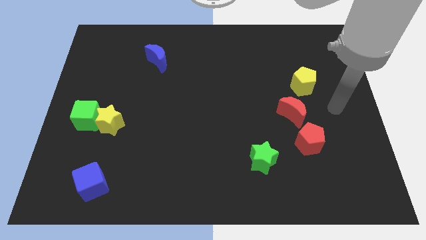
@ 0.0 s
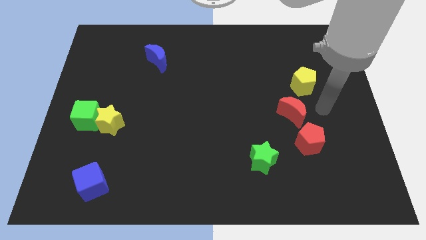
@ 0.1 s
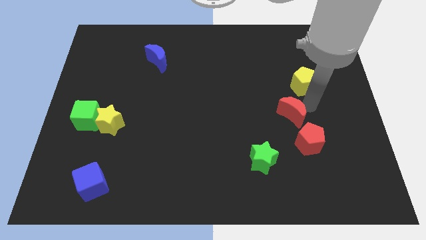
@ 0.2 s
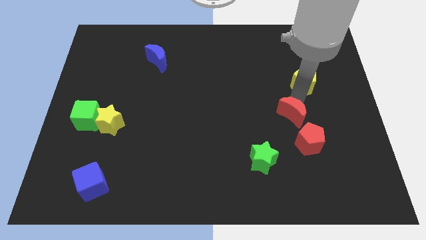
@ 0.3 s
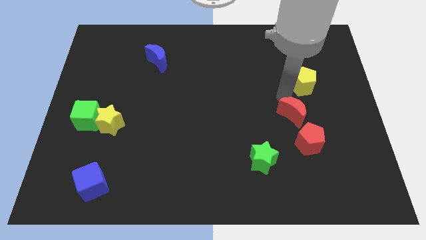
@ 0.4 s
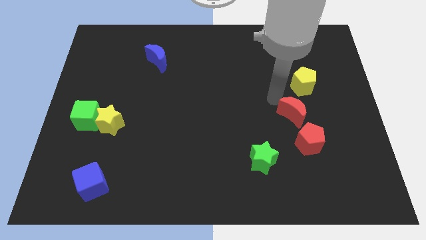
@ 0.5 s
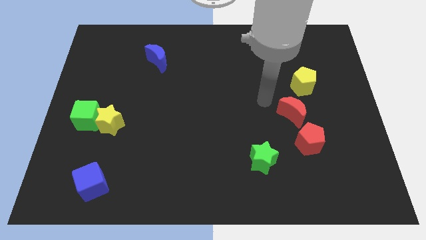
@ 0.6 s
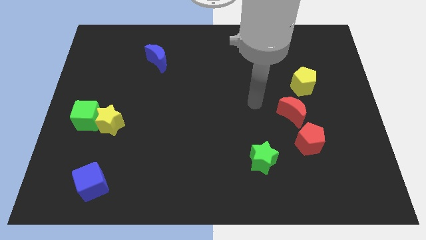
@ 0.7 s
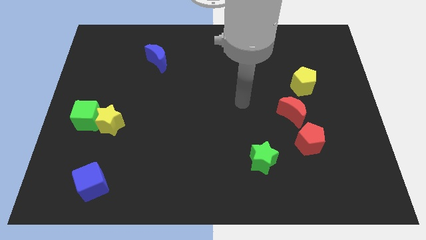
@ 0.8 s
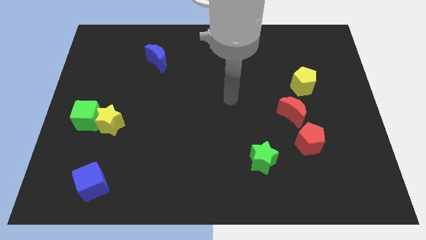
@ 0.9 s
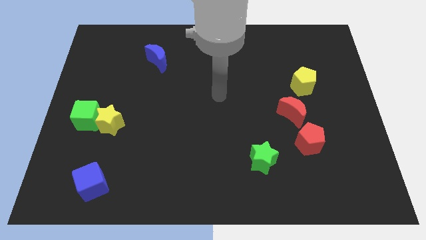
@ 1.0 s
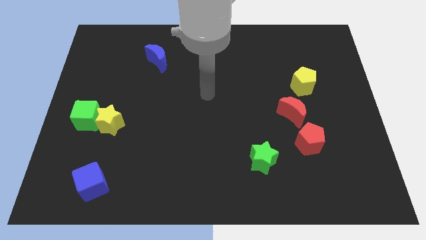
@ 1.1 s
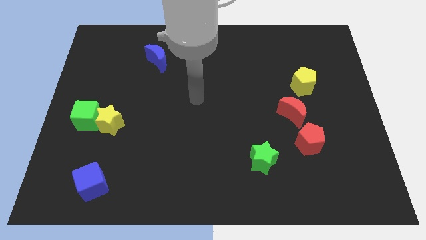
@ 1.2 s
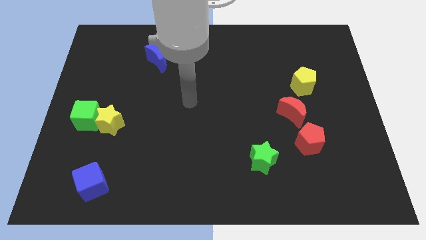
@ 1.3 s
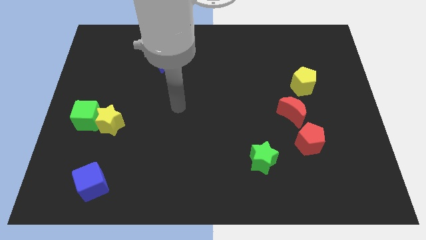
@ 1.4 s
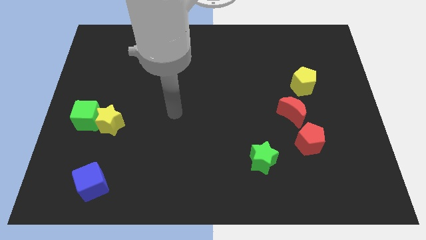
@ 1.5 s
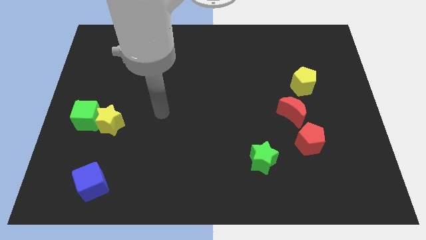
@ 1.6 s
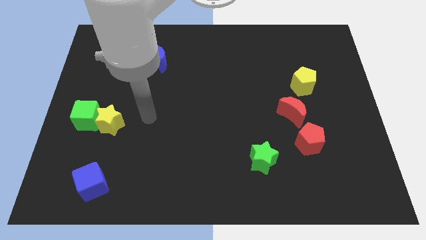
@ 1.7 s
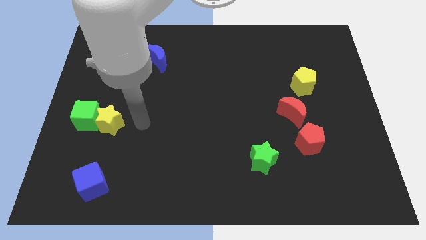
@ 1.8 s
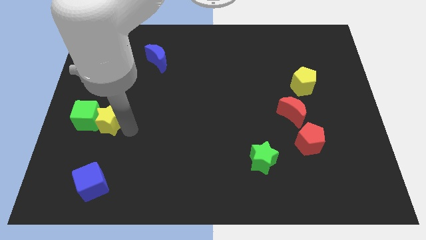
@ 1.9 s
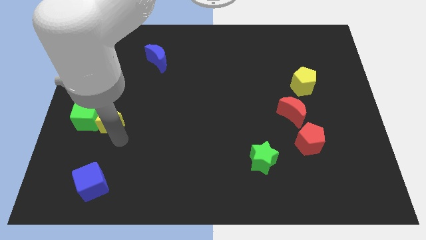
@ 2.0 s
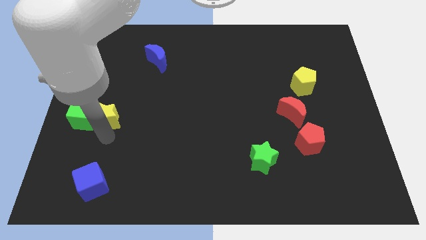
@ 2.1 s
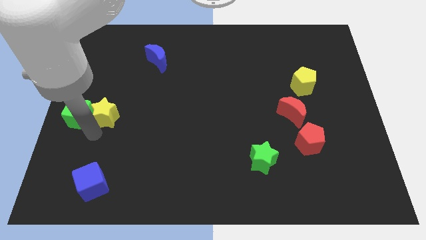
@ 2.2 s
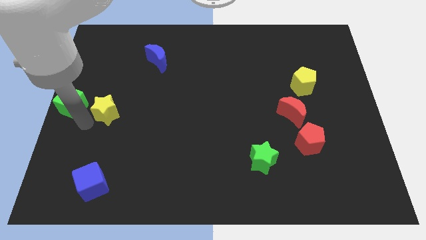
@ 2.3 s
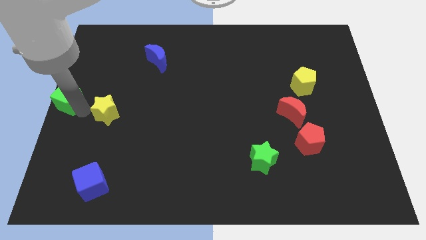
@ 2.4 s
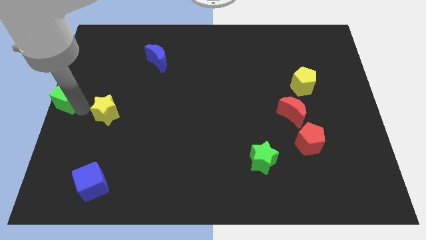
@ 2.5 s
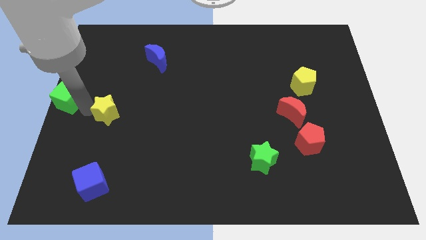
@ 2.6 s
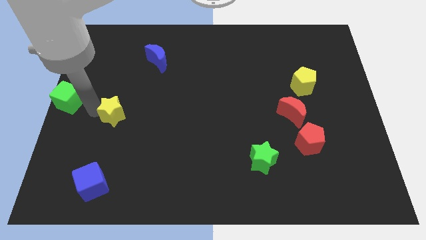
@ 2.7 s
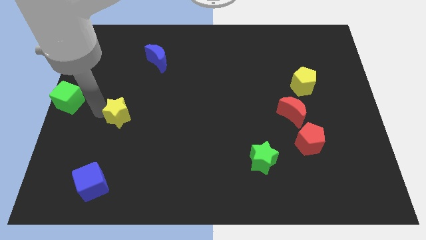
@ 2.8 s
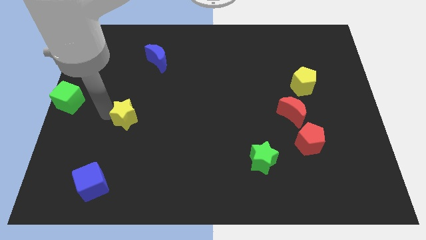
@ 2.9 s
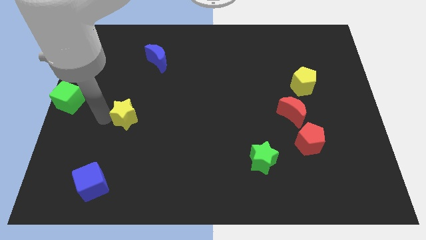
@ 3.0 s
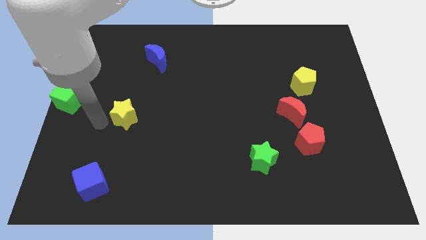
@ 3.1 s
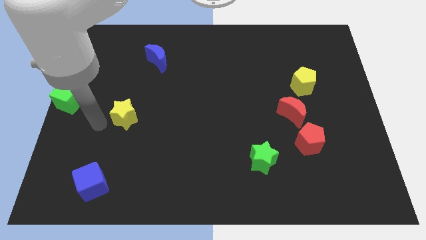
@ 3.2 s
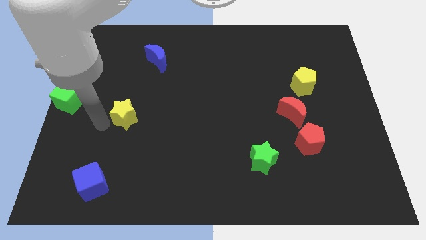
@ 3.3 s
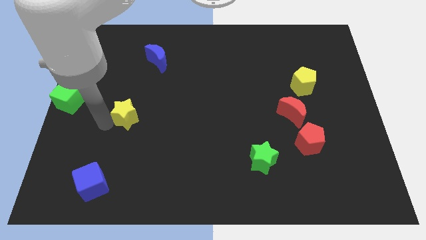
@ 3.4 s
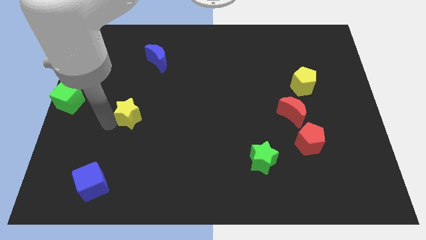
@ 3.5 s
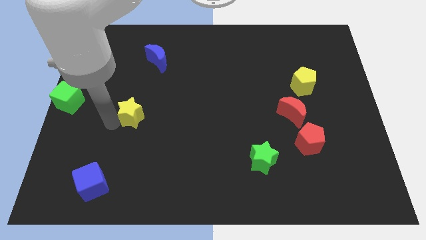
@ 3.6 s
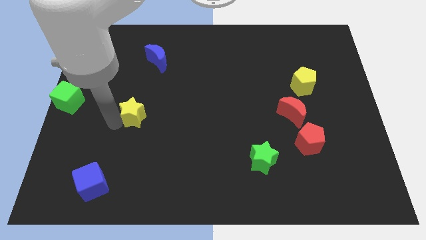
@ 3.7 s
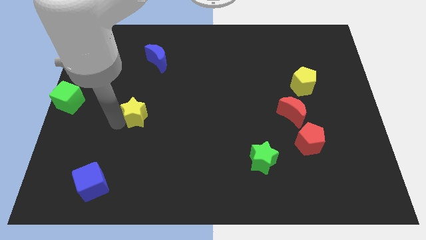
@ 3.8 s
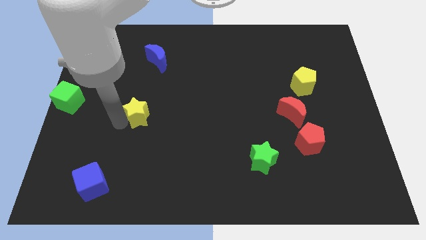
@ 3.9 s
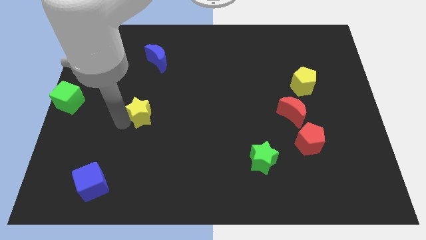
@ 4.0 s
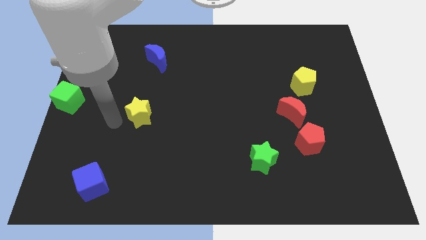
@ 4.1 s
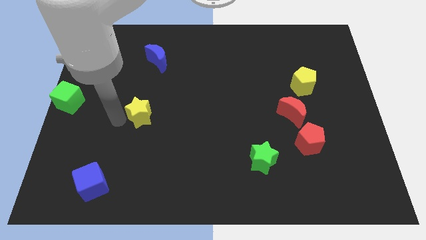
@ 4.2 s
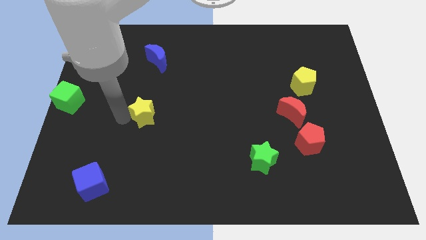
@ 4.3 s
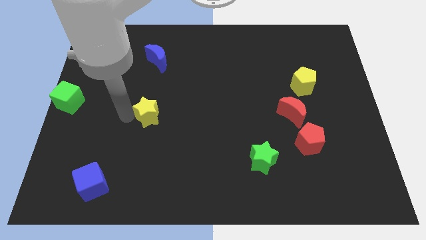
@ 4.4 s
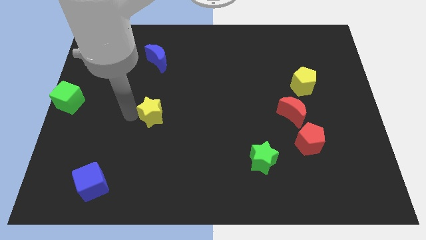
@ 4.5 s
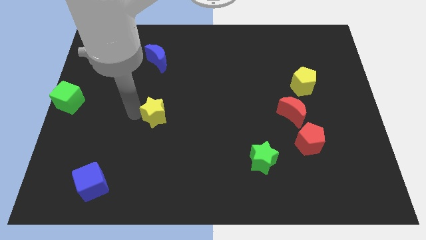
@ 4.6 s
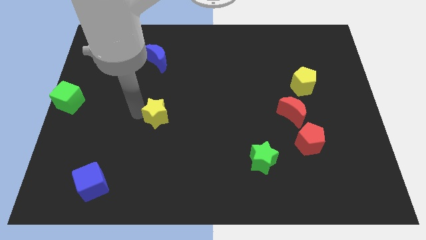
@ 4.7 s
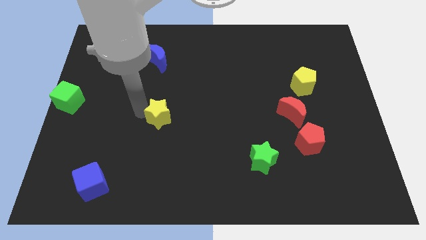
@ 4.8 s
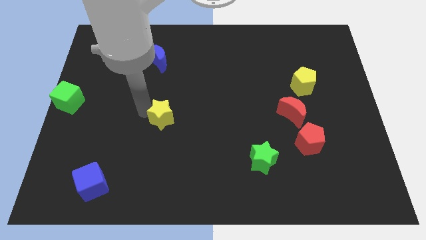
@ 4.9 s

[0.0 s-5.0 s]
move the yellow star to the center of the board

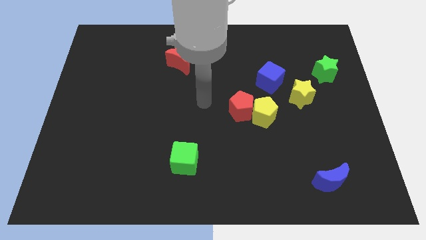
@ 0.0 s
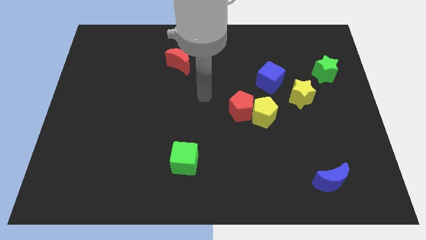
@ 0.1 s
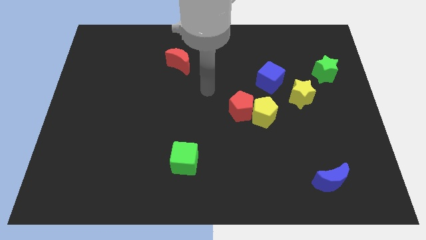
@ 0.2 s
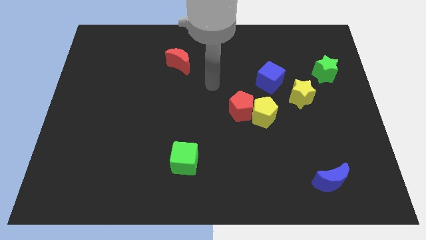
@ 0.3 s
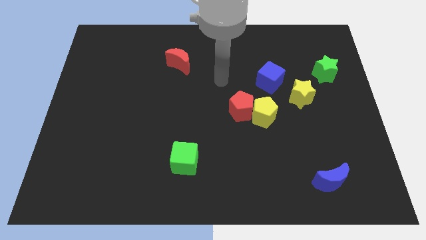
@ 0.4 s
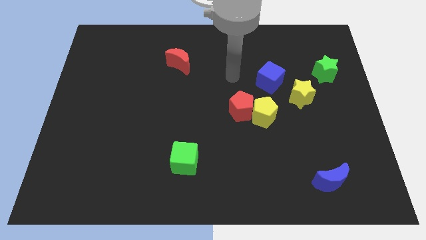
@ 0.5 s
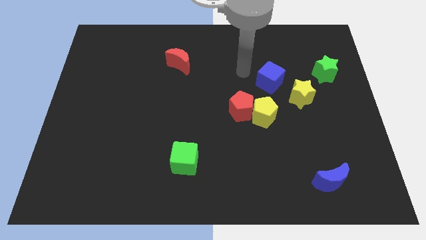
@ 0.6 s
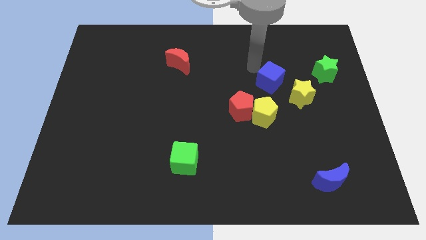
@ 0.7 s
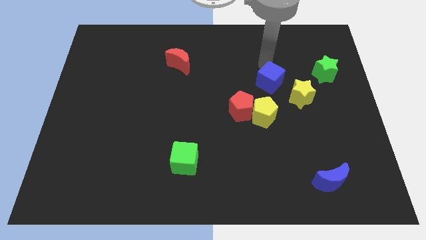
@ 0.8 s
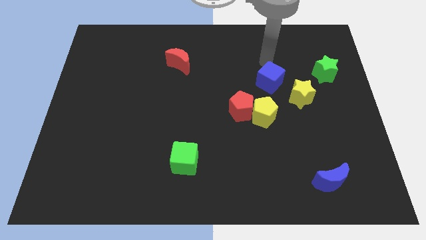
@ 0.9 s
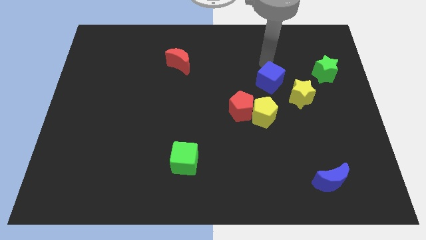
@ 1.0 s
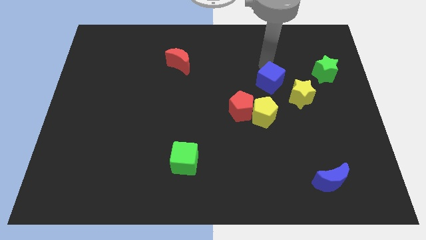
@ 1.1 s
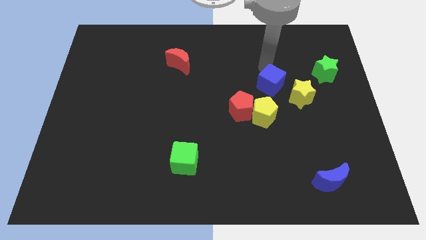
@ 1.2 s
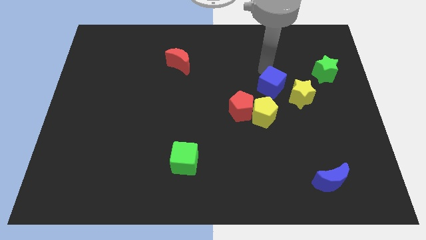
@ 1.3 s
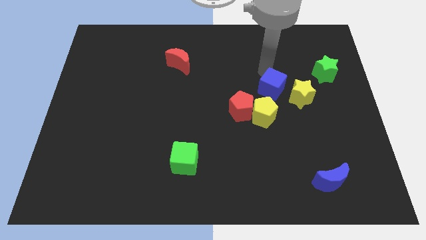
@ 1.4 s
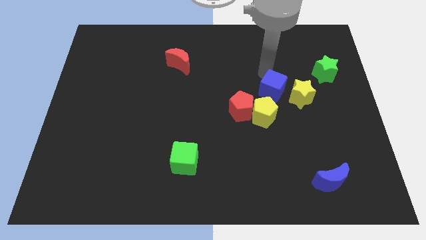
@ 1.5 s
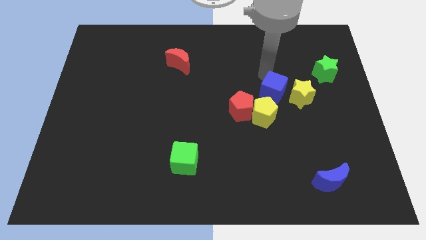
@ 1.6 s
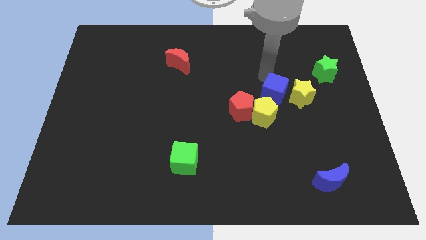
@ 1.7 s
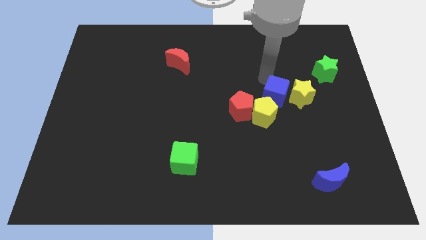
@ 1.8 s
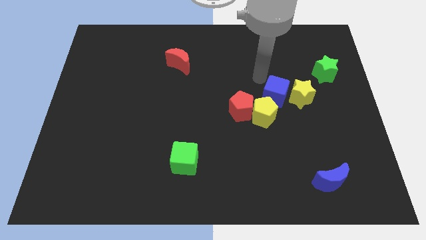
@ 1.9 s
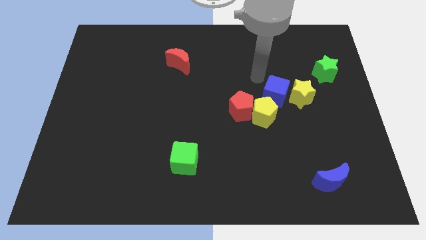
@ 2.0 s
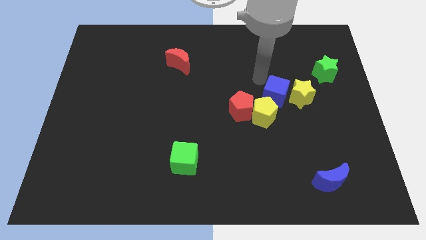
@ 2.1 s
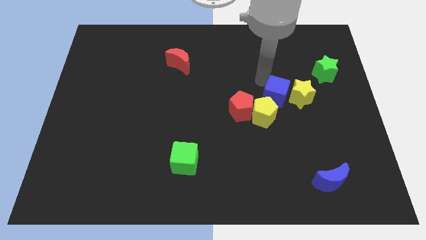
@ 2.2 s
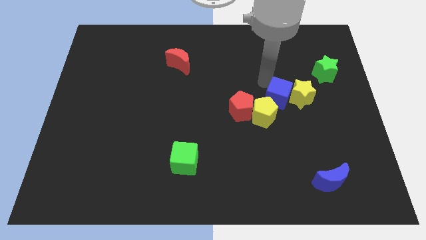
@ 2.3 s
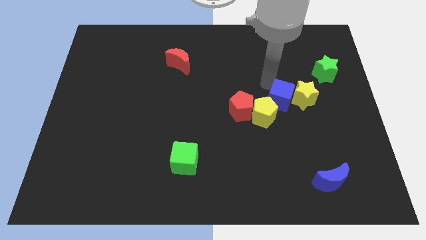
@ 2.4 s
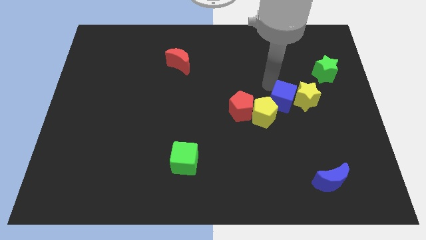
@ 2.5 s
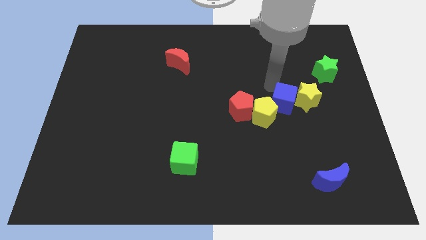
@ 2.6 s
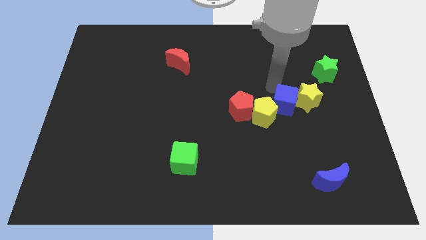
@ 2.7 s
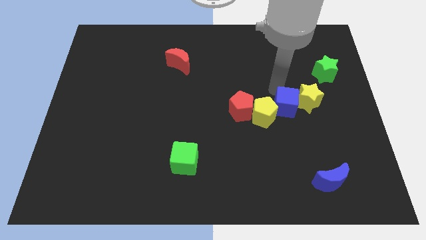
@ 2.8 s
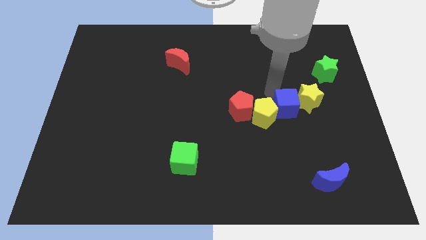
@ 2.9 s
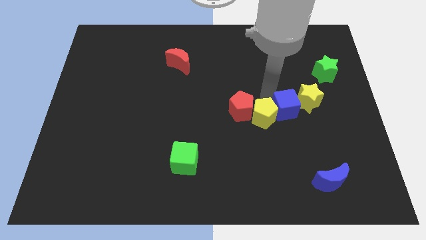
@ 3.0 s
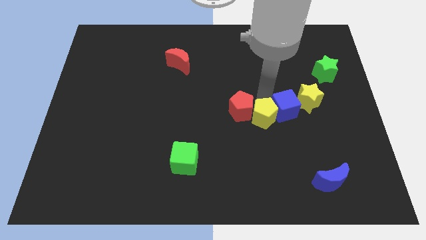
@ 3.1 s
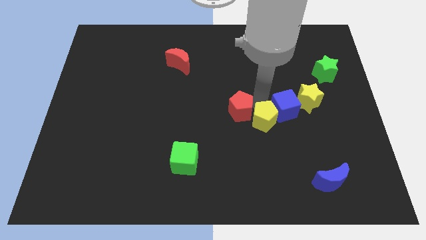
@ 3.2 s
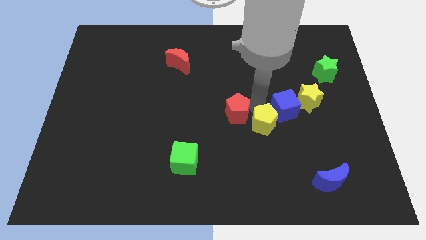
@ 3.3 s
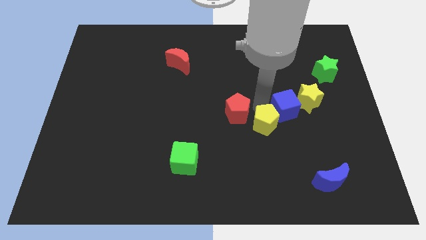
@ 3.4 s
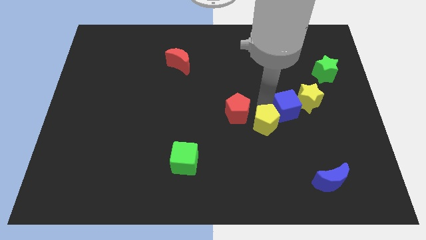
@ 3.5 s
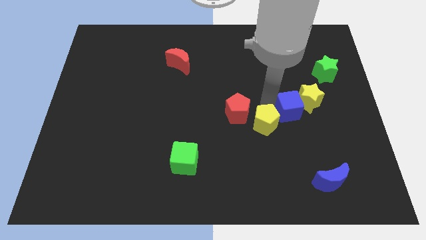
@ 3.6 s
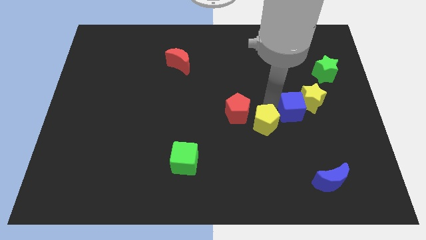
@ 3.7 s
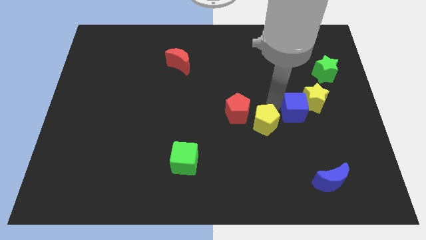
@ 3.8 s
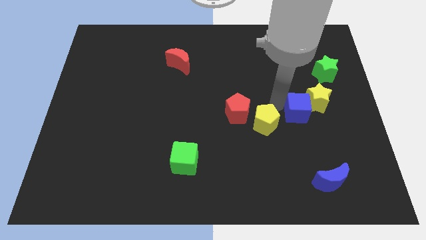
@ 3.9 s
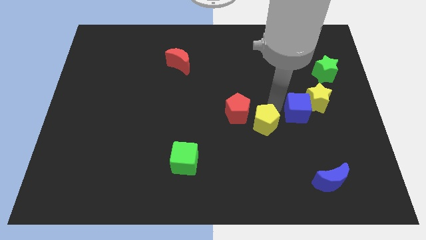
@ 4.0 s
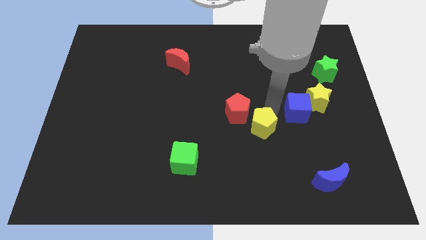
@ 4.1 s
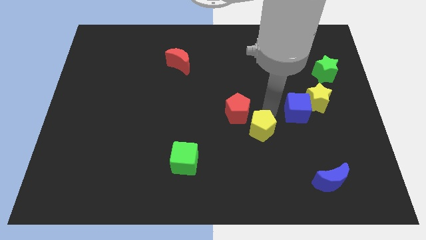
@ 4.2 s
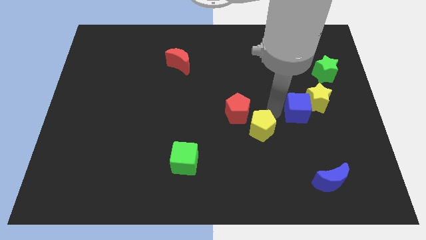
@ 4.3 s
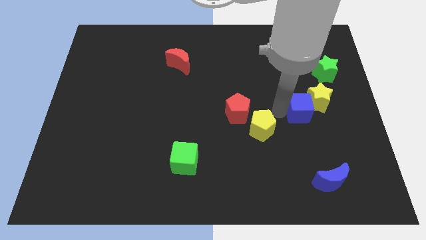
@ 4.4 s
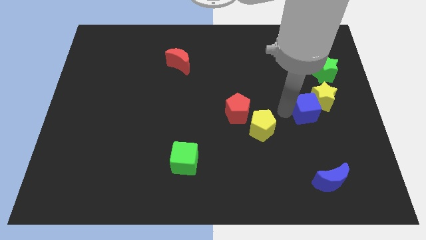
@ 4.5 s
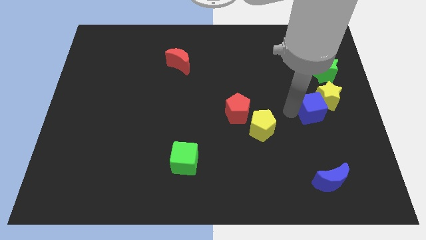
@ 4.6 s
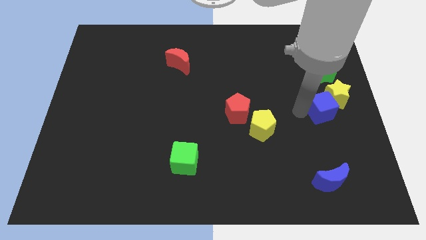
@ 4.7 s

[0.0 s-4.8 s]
push the blue cube to the center right
